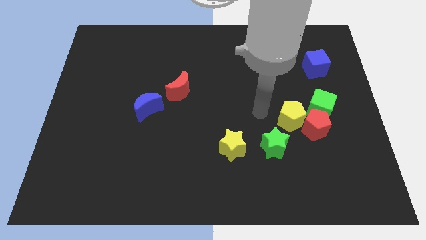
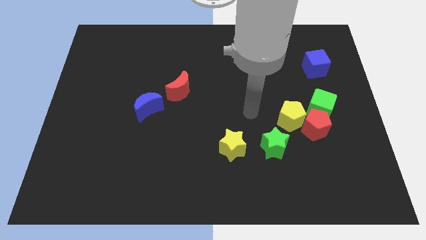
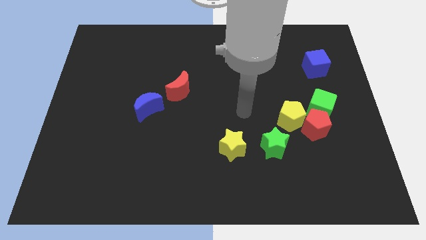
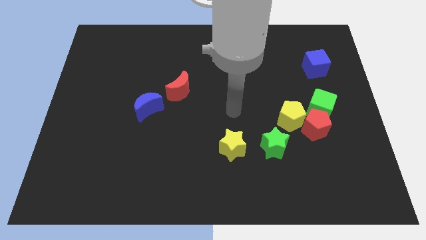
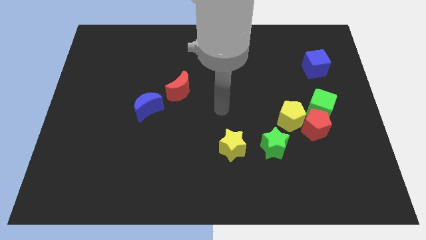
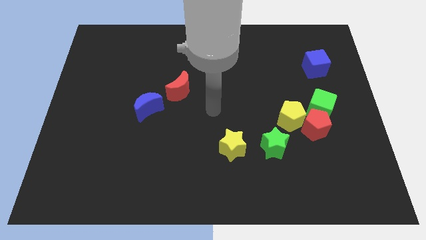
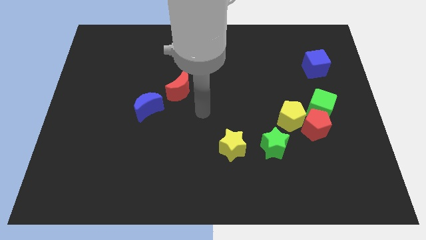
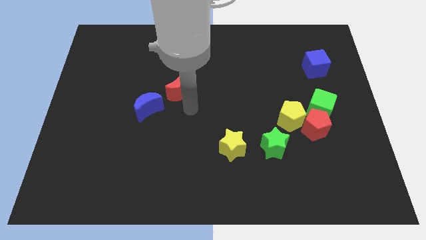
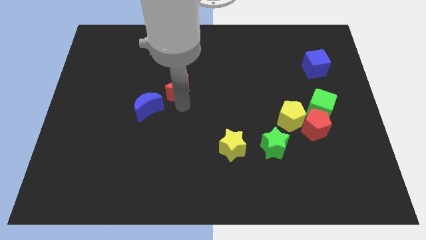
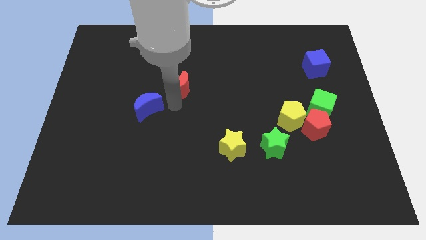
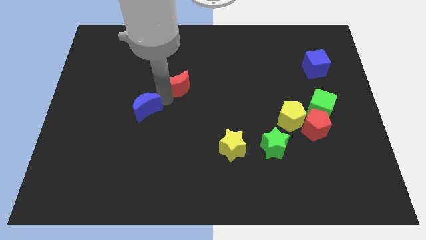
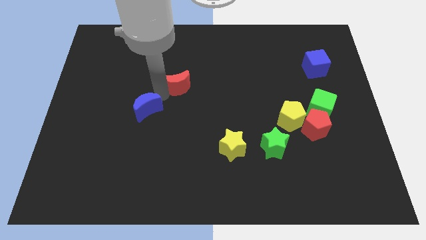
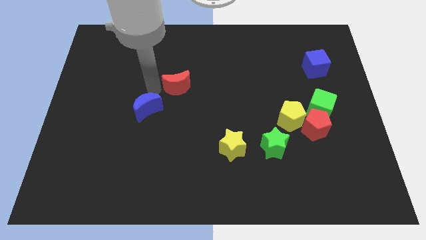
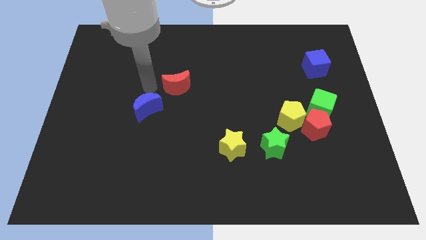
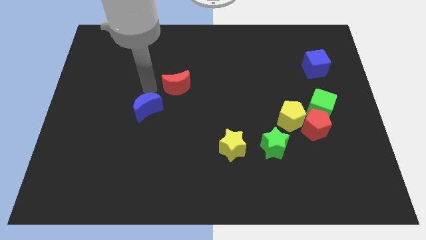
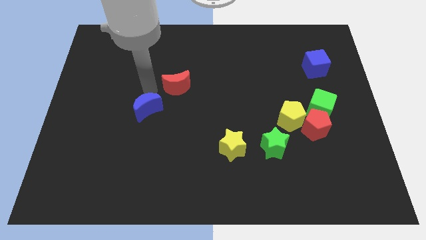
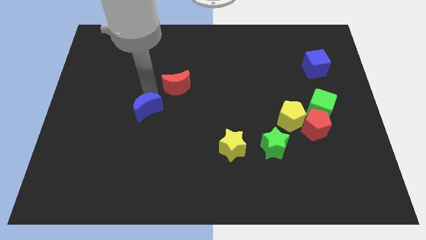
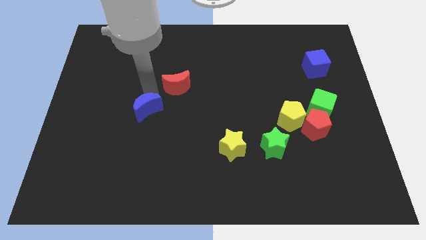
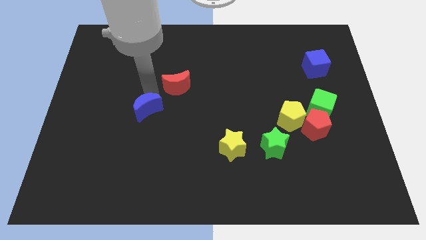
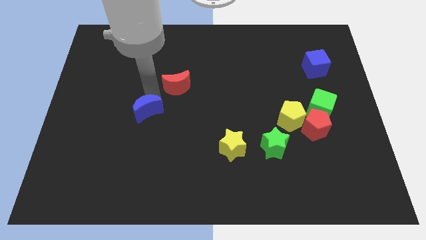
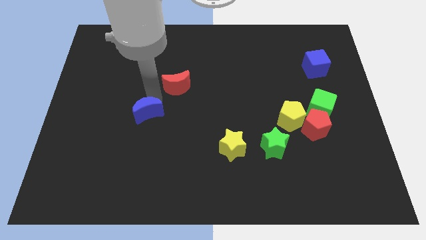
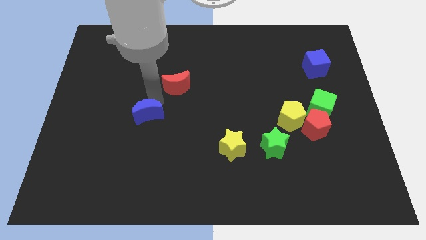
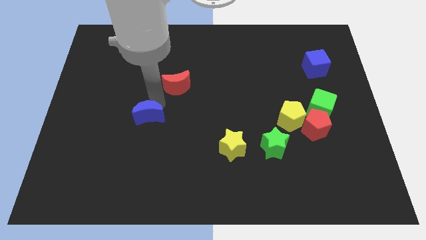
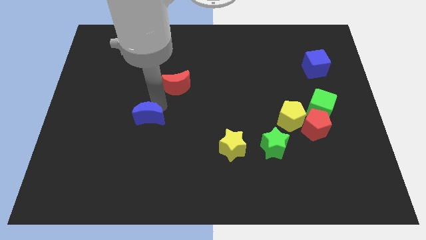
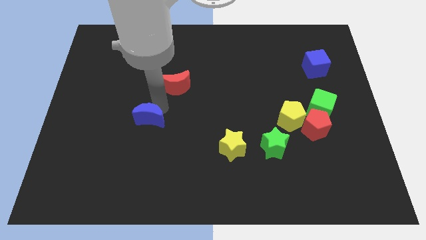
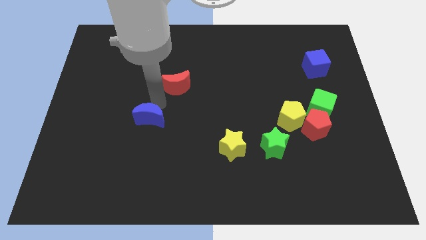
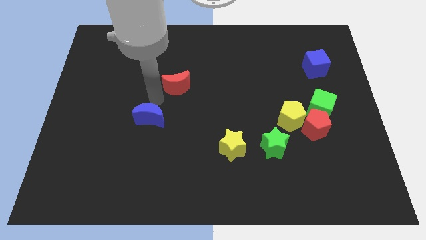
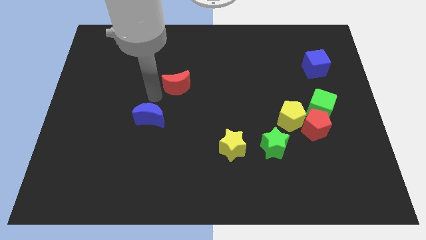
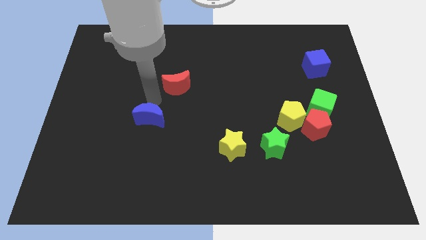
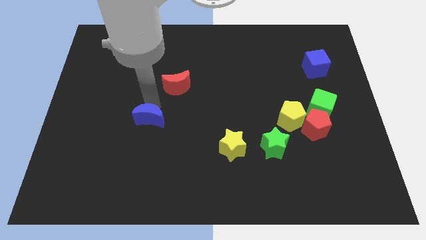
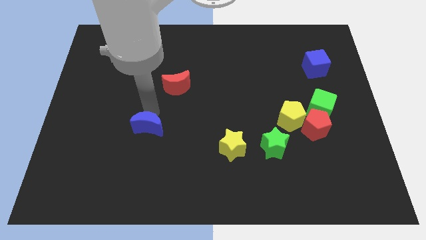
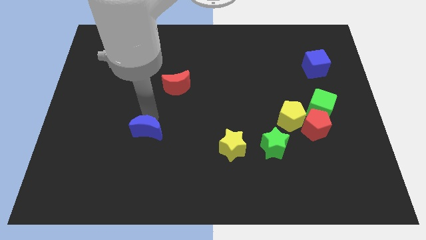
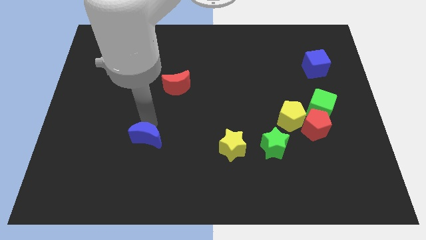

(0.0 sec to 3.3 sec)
slightly slide the blue moon downwards

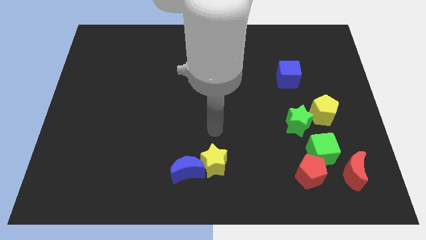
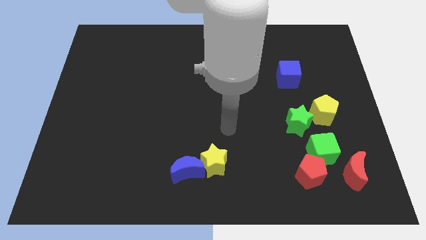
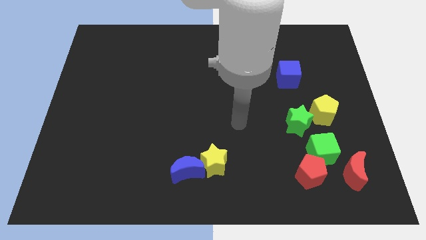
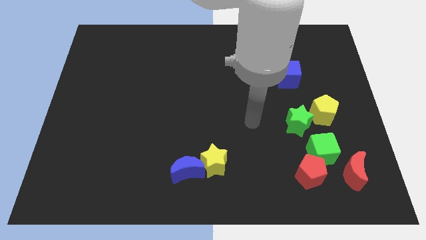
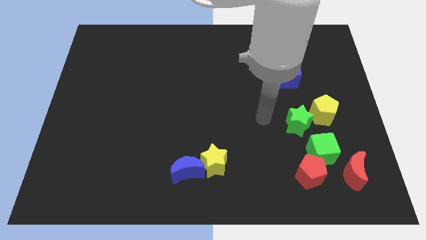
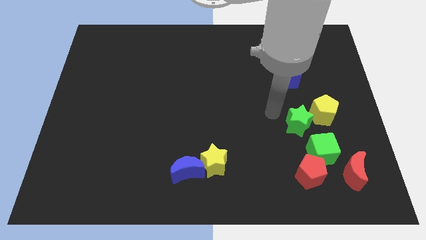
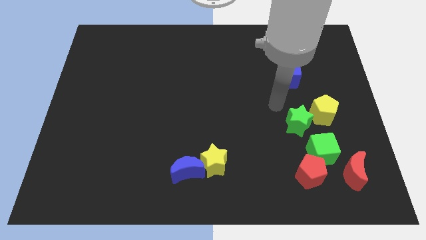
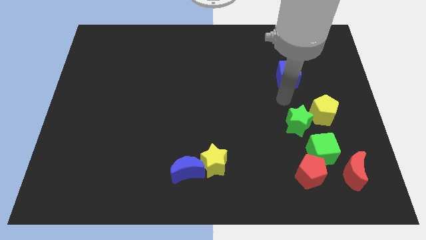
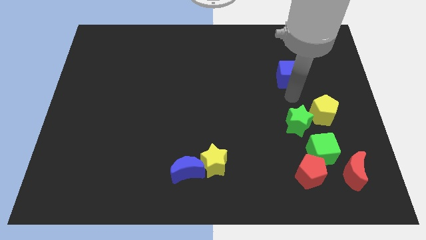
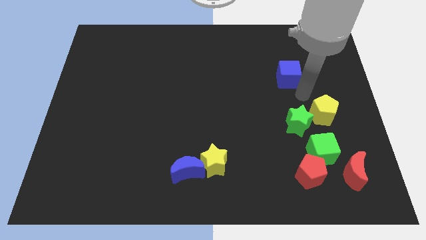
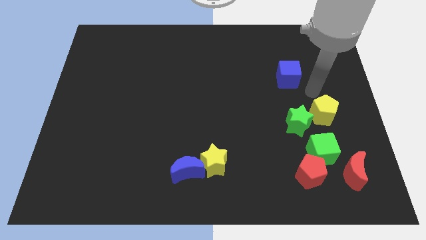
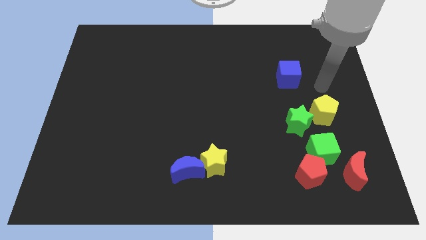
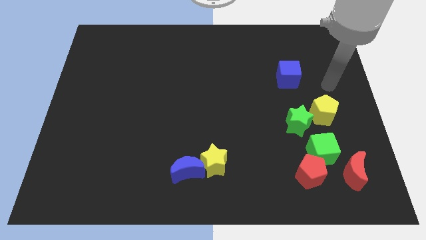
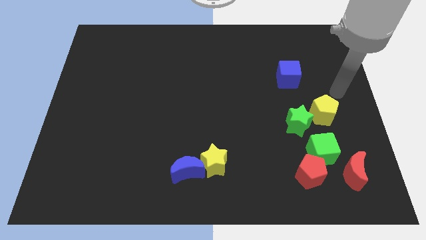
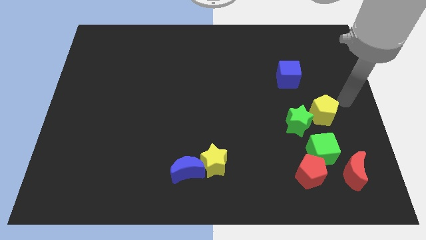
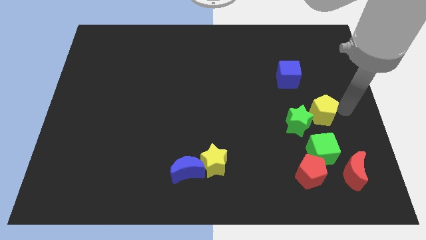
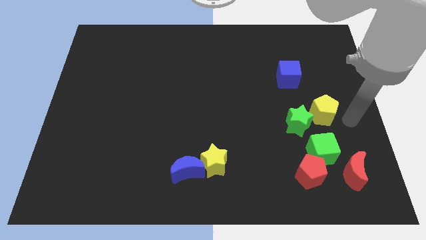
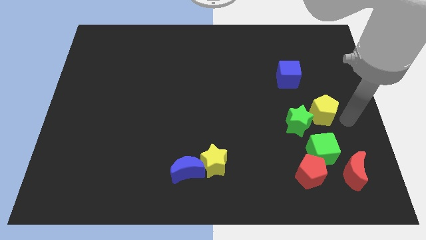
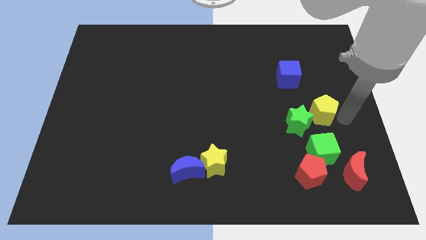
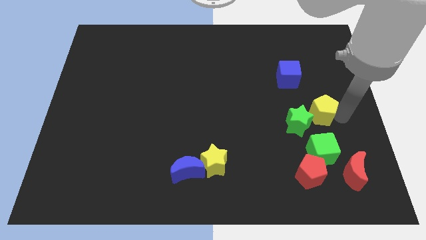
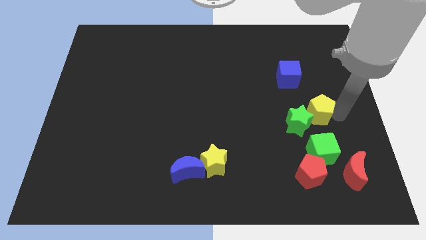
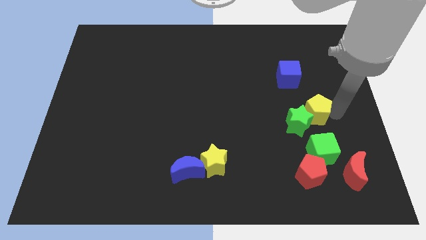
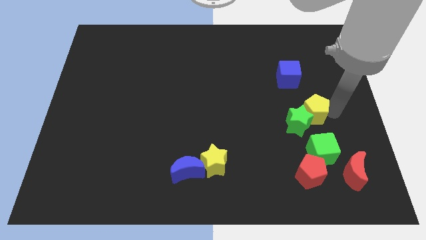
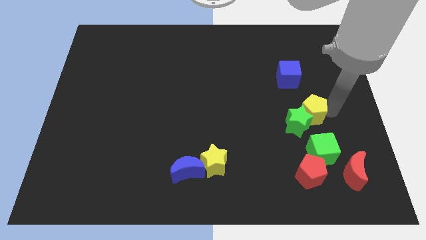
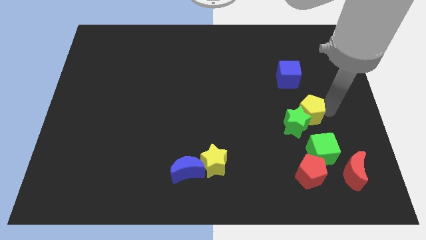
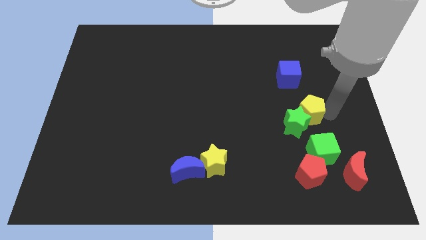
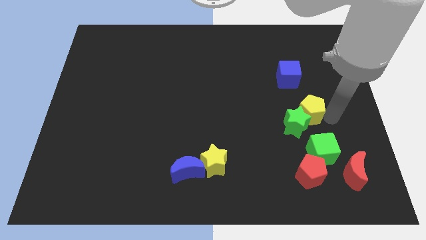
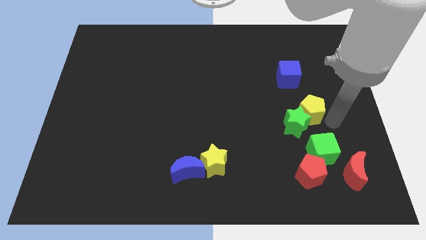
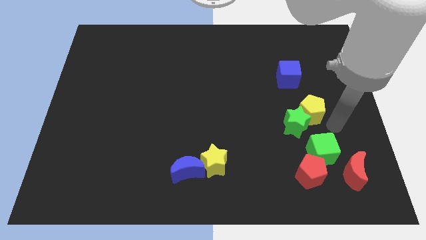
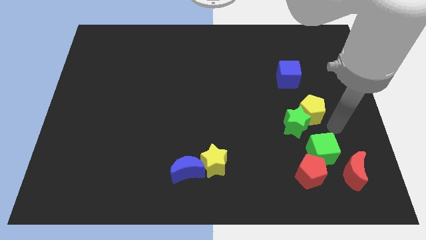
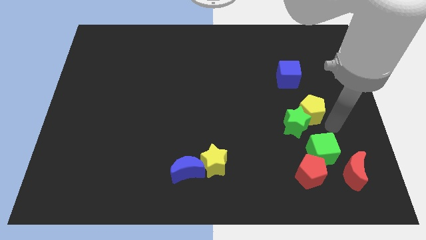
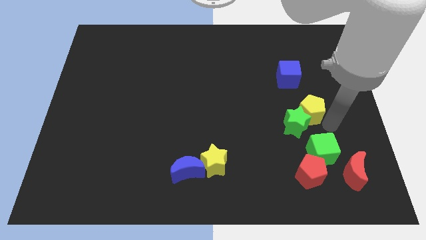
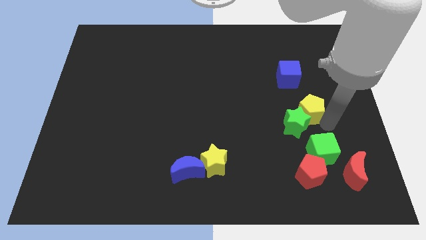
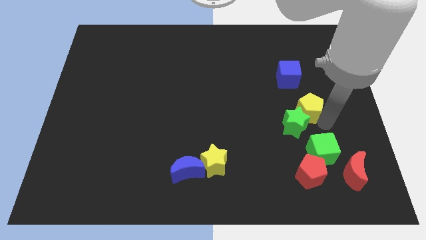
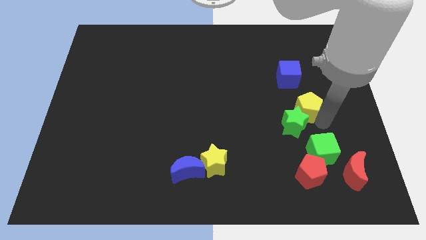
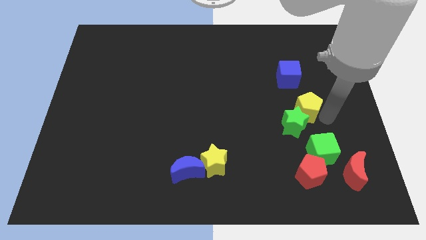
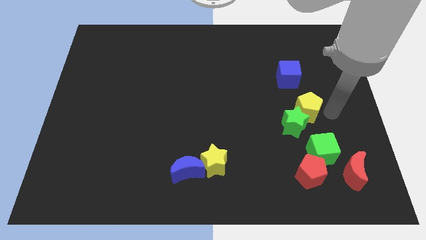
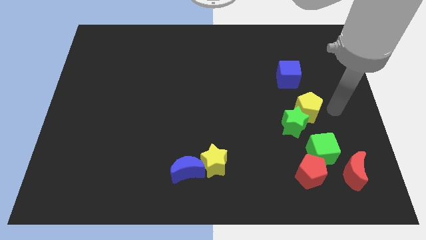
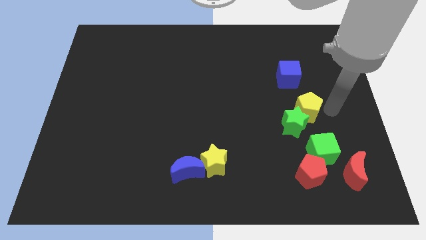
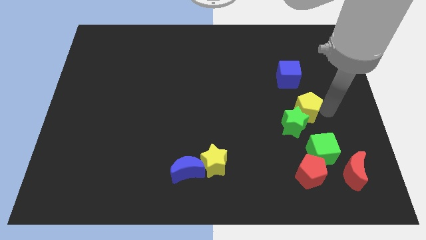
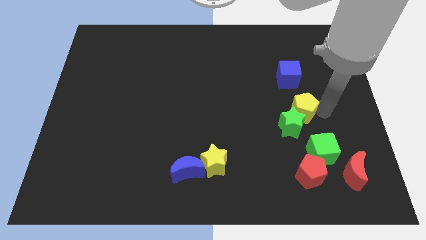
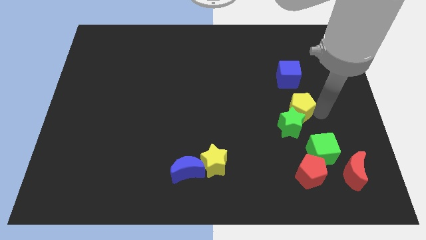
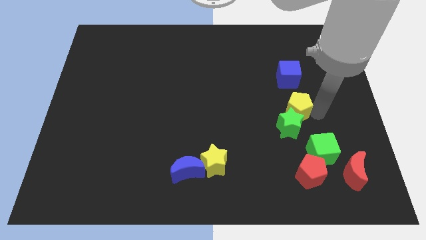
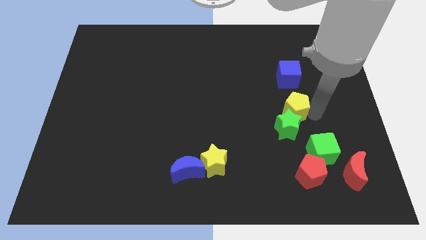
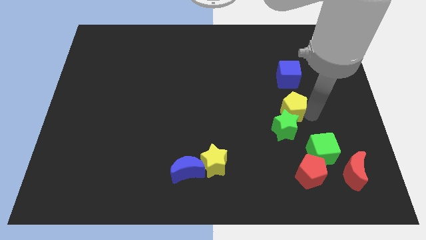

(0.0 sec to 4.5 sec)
move the yellow pentagon a bit left
